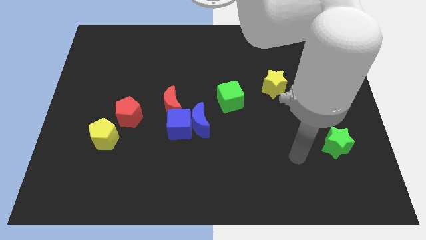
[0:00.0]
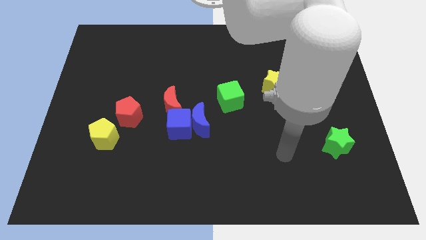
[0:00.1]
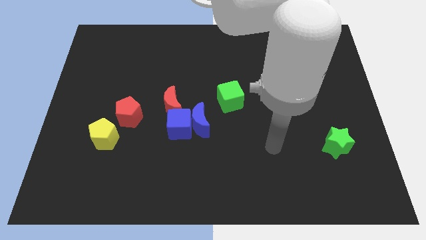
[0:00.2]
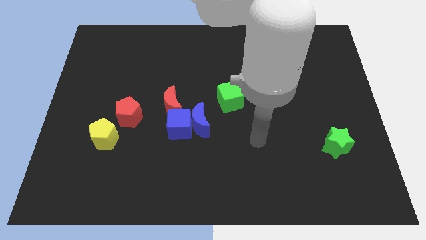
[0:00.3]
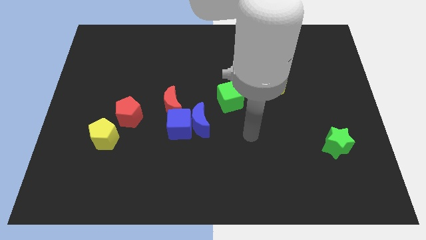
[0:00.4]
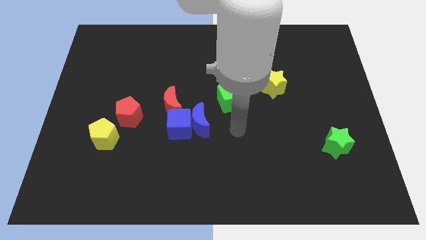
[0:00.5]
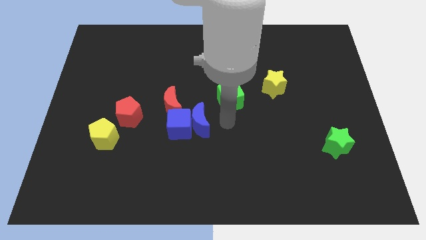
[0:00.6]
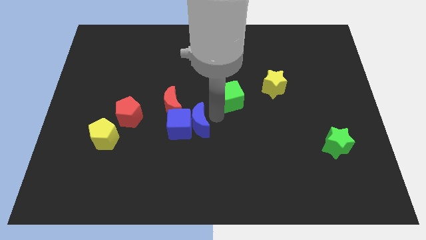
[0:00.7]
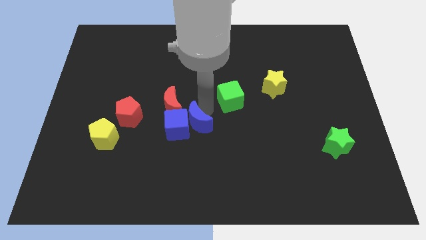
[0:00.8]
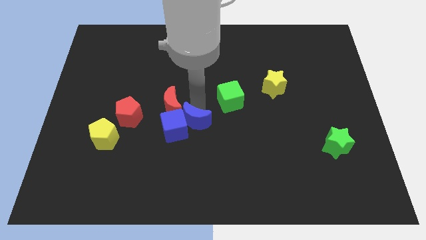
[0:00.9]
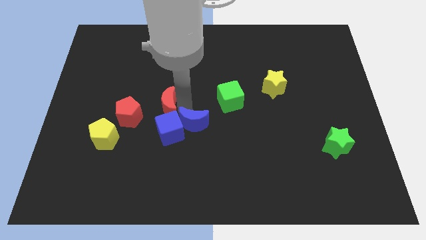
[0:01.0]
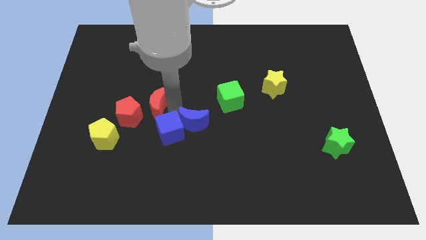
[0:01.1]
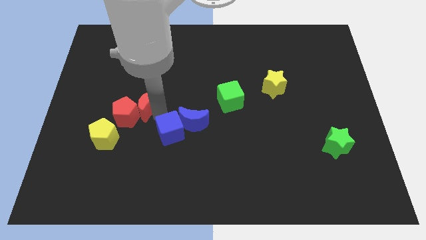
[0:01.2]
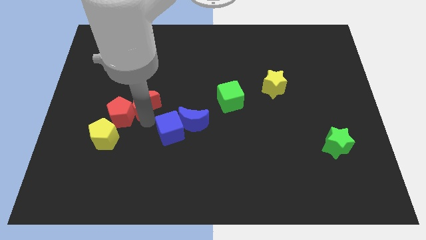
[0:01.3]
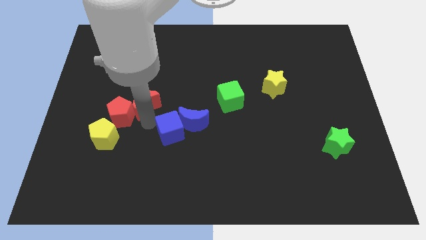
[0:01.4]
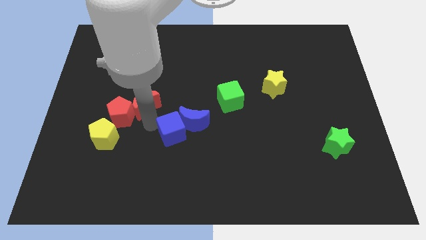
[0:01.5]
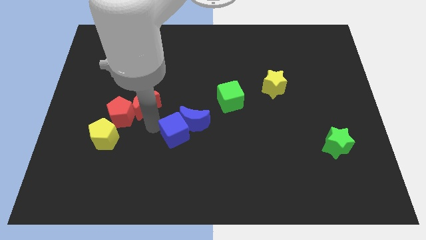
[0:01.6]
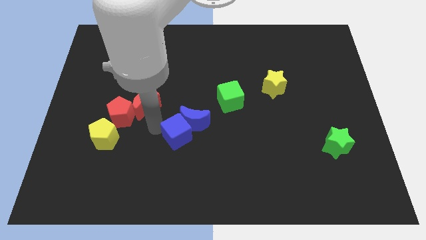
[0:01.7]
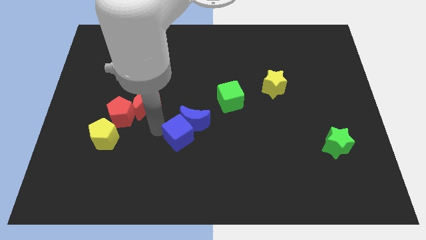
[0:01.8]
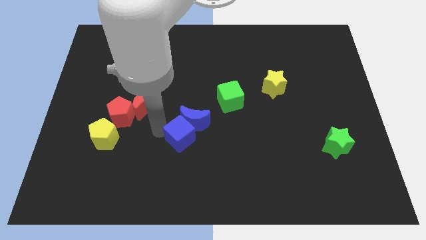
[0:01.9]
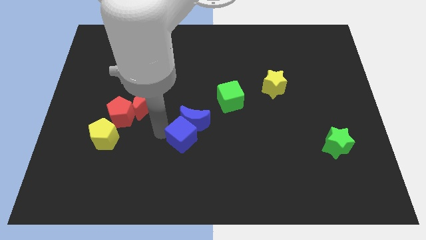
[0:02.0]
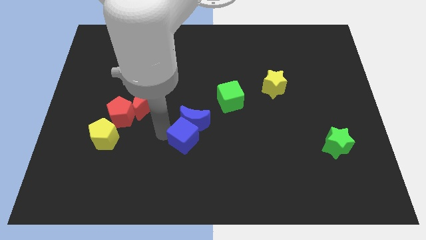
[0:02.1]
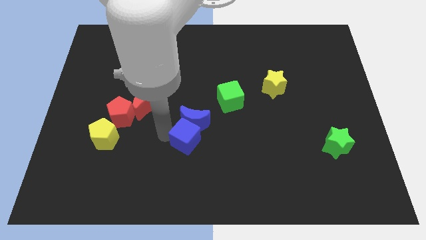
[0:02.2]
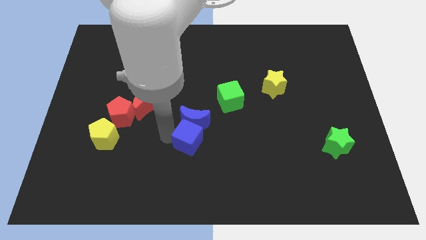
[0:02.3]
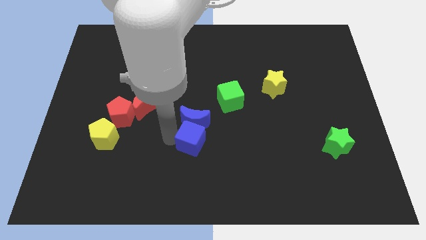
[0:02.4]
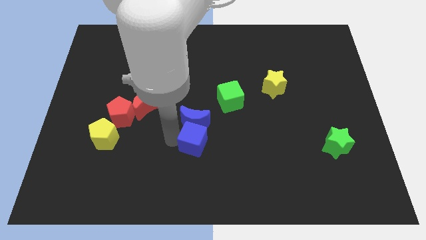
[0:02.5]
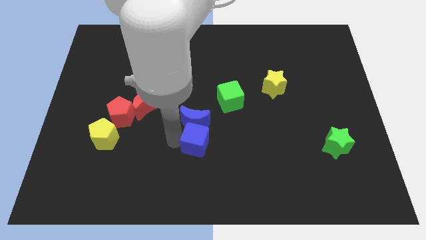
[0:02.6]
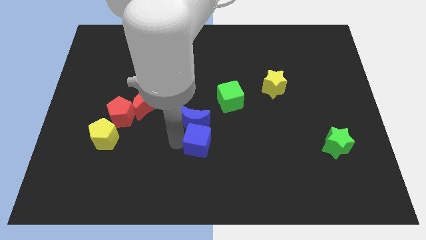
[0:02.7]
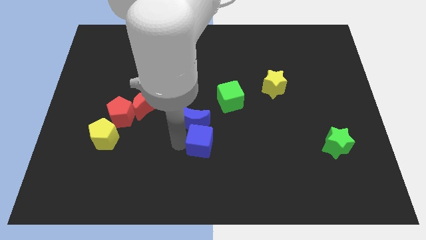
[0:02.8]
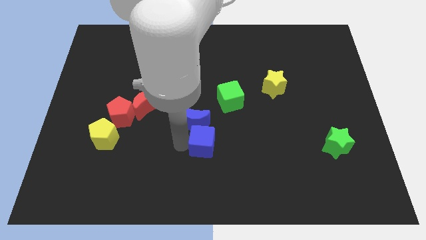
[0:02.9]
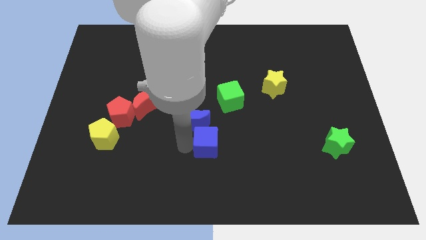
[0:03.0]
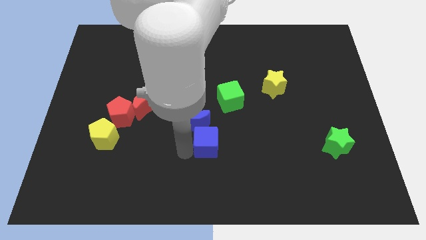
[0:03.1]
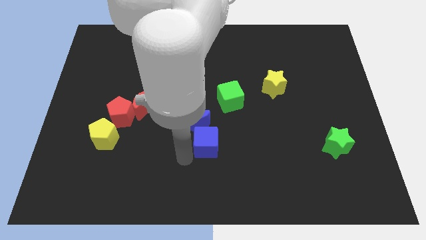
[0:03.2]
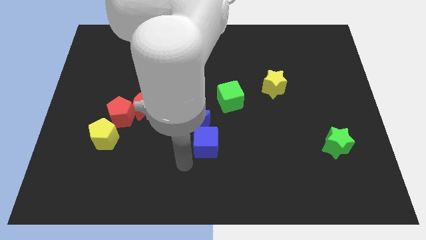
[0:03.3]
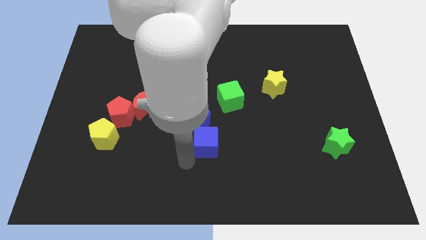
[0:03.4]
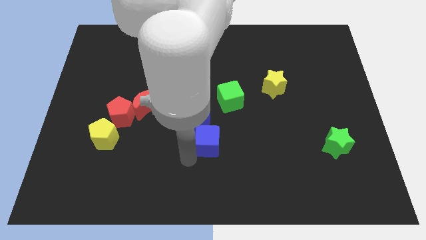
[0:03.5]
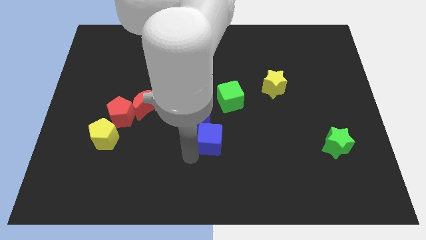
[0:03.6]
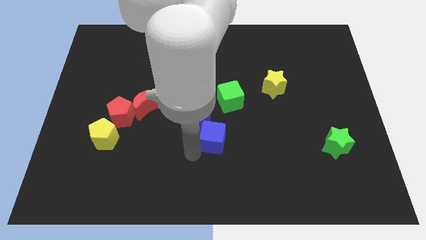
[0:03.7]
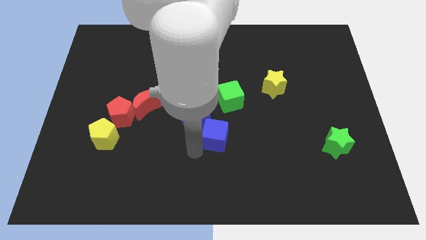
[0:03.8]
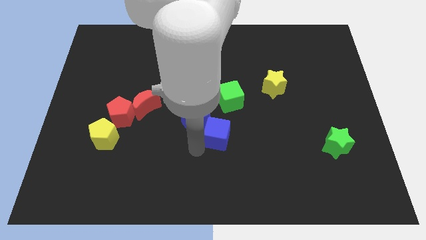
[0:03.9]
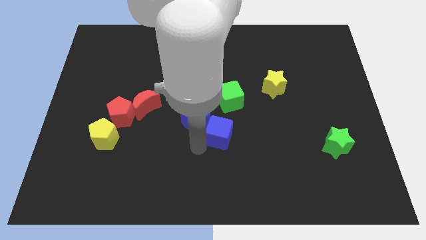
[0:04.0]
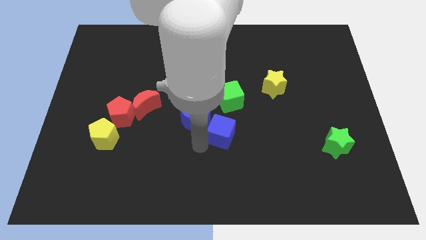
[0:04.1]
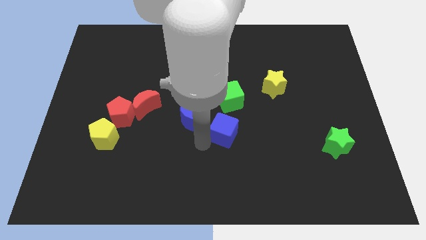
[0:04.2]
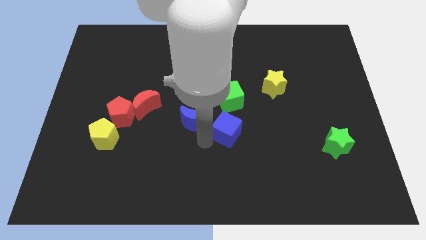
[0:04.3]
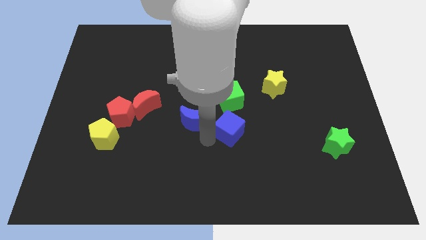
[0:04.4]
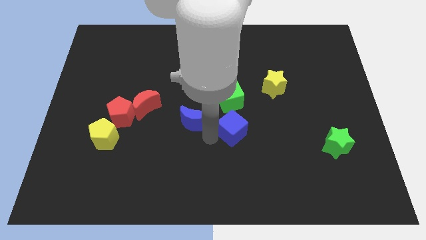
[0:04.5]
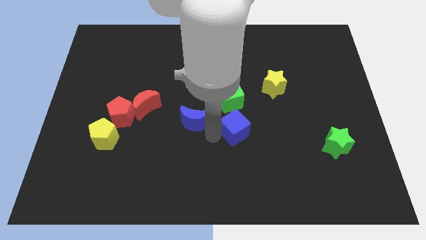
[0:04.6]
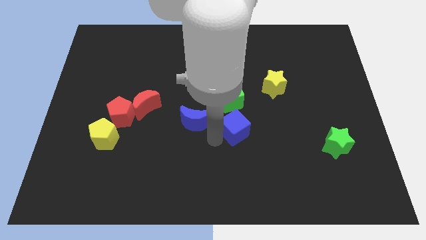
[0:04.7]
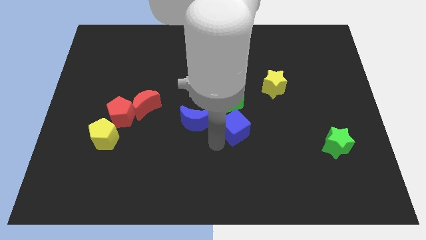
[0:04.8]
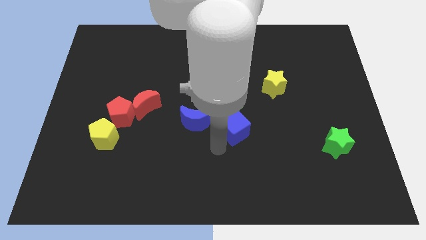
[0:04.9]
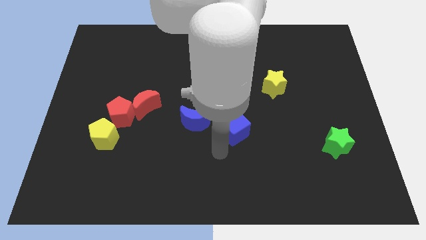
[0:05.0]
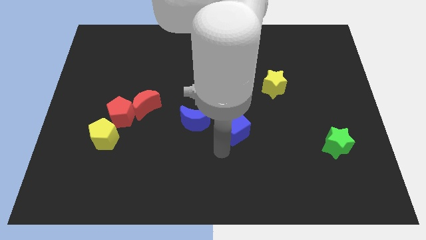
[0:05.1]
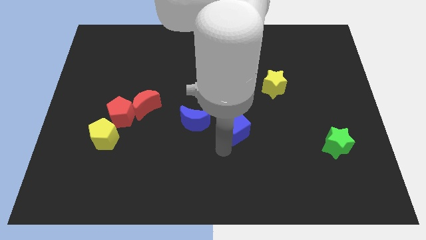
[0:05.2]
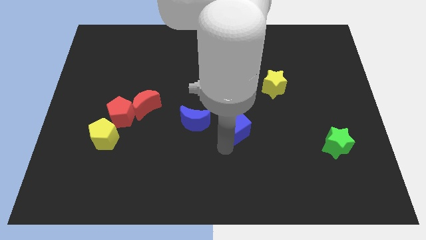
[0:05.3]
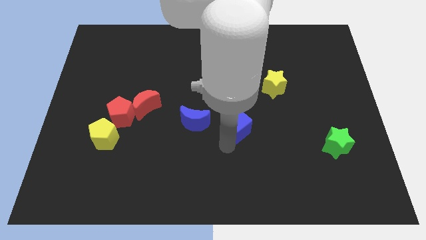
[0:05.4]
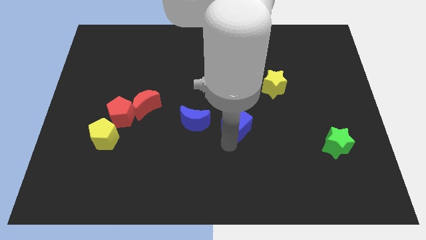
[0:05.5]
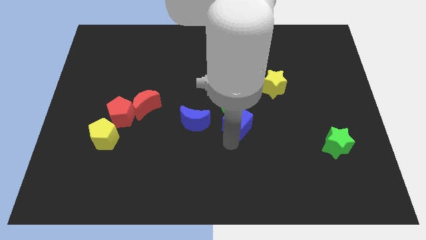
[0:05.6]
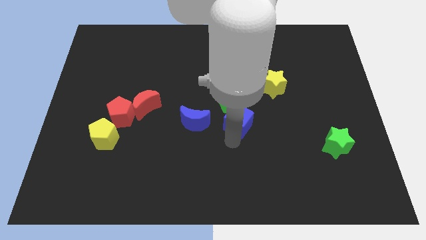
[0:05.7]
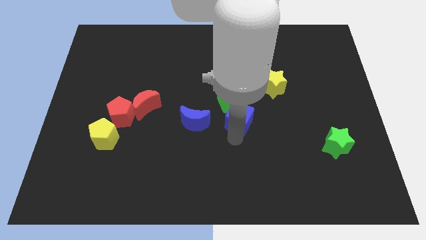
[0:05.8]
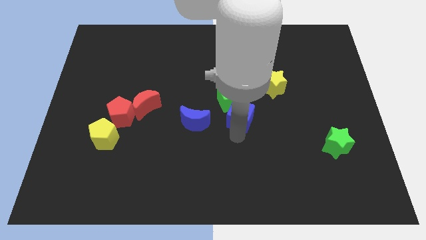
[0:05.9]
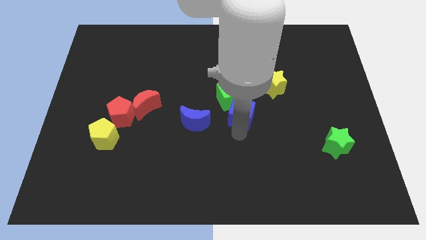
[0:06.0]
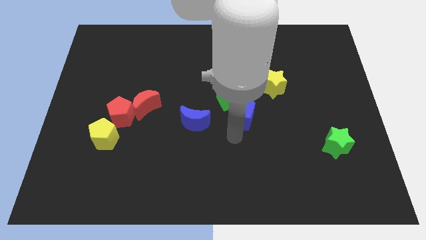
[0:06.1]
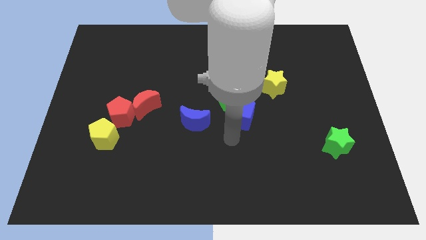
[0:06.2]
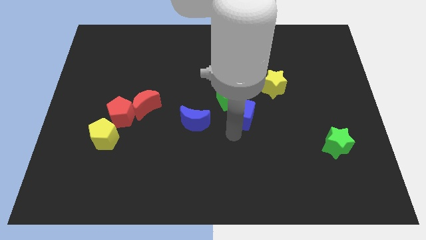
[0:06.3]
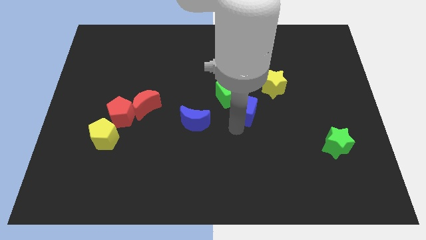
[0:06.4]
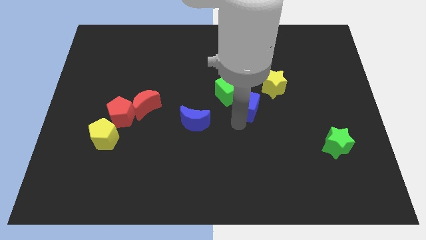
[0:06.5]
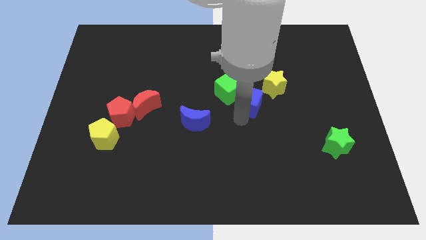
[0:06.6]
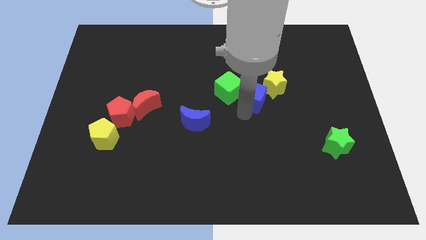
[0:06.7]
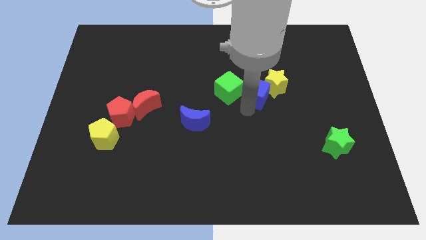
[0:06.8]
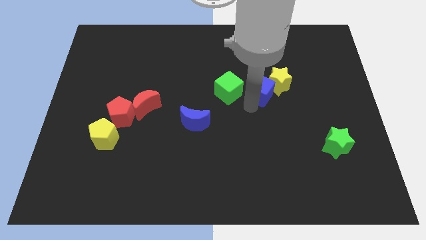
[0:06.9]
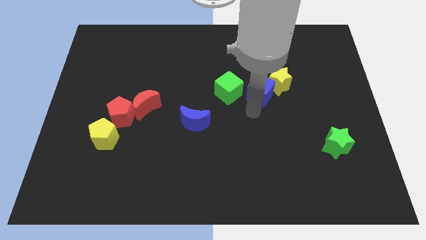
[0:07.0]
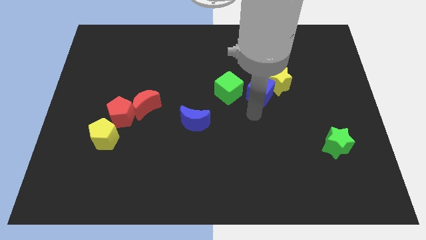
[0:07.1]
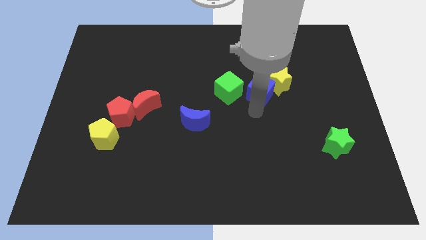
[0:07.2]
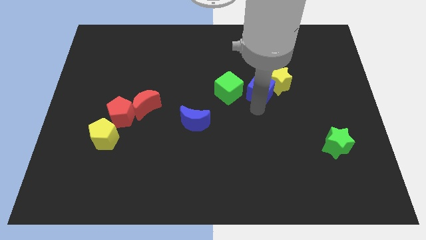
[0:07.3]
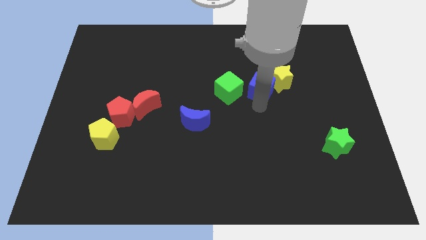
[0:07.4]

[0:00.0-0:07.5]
slide the blue cube upwards and then to the right

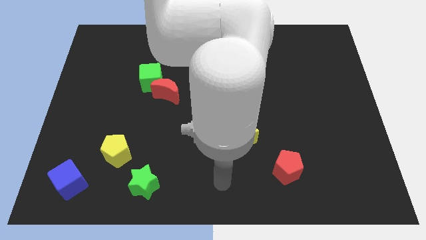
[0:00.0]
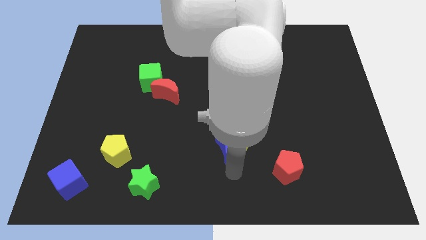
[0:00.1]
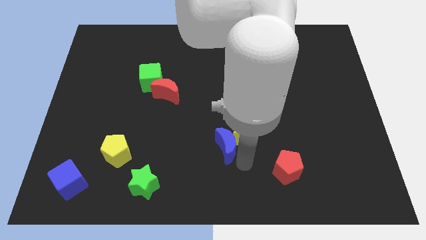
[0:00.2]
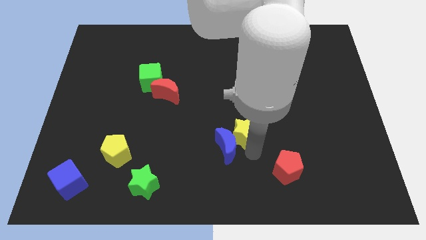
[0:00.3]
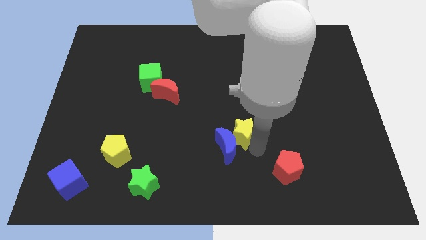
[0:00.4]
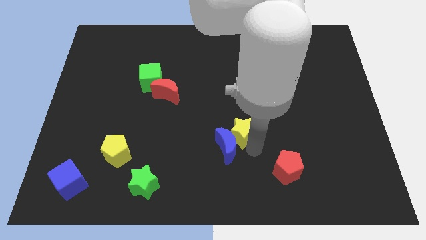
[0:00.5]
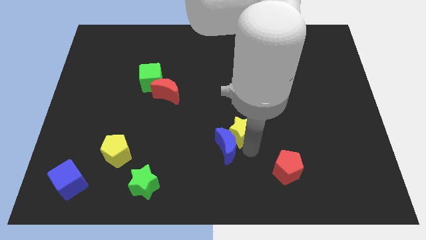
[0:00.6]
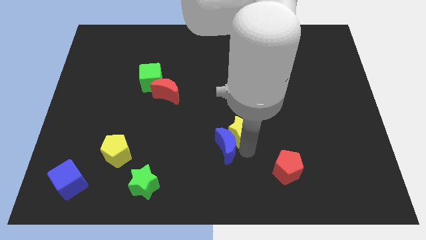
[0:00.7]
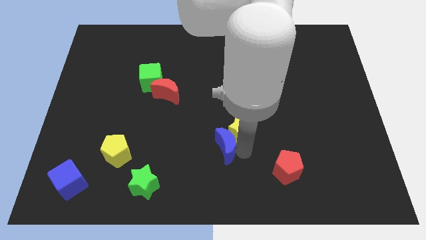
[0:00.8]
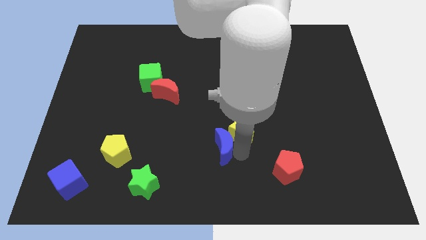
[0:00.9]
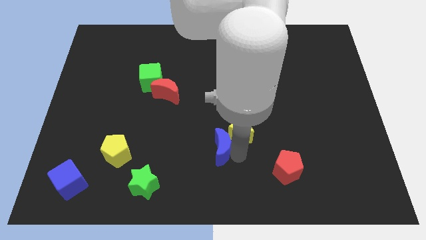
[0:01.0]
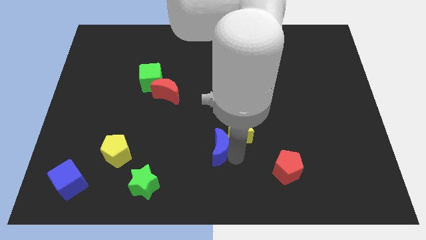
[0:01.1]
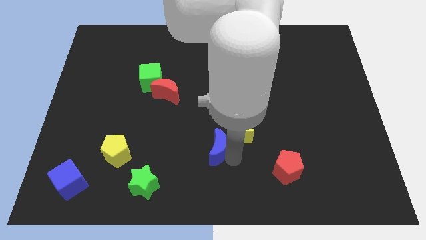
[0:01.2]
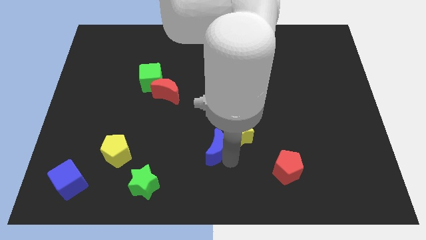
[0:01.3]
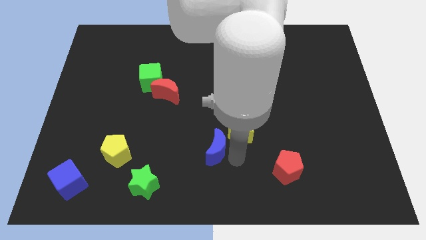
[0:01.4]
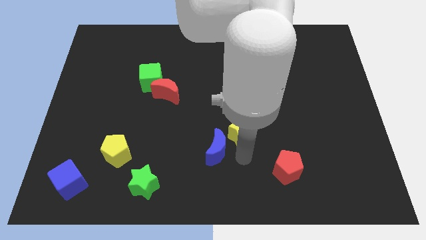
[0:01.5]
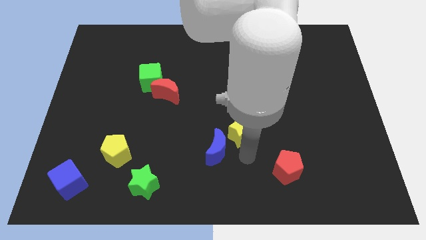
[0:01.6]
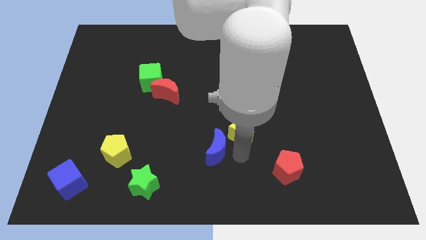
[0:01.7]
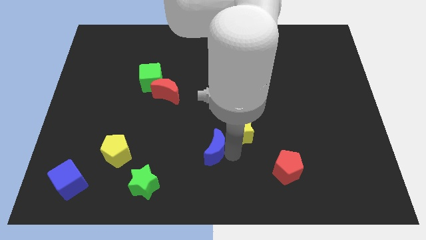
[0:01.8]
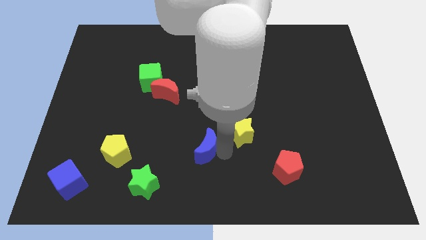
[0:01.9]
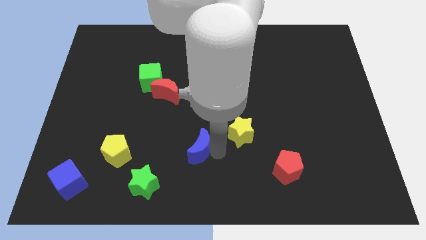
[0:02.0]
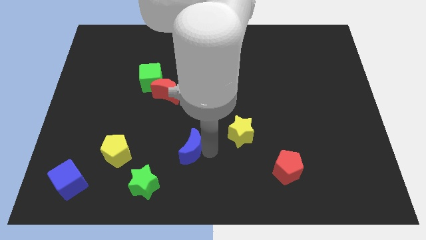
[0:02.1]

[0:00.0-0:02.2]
slide the blue moon to the left somewhat
